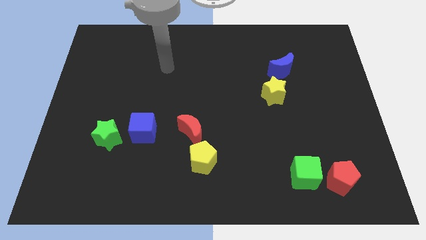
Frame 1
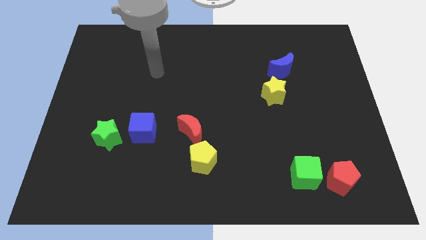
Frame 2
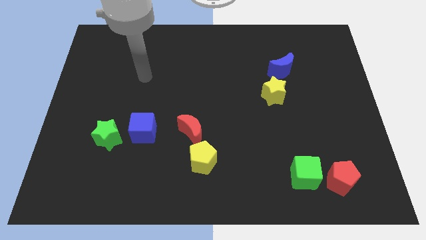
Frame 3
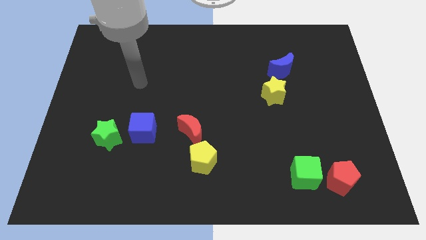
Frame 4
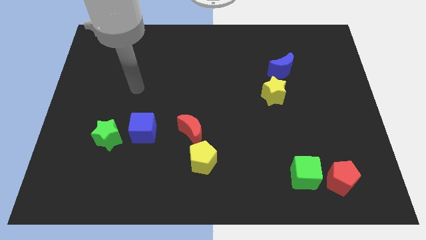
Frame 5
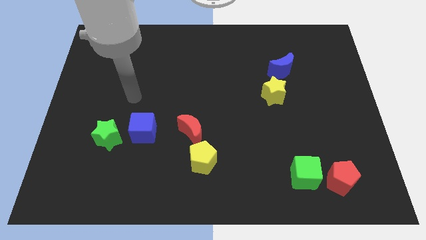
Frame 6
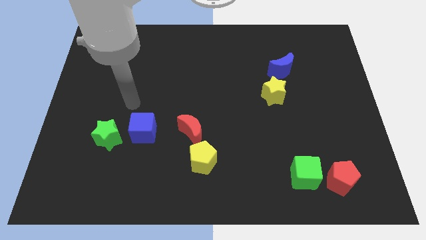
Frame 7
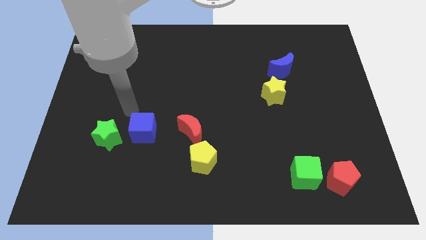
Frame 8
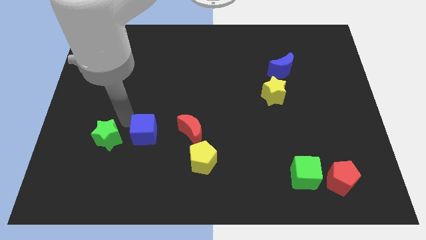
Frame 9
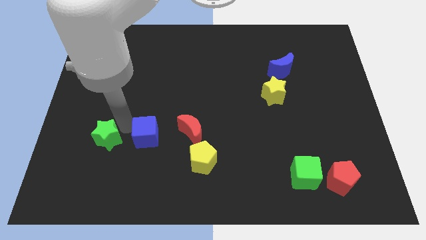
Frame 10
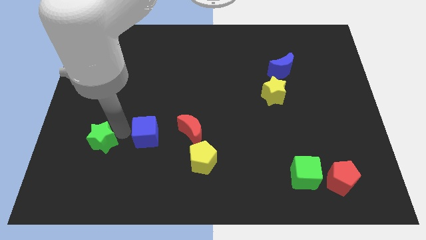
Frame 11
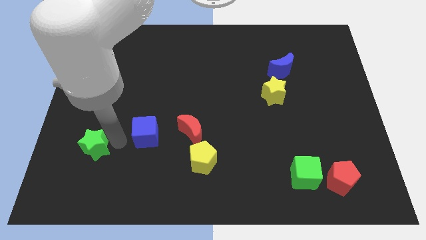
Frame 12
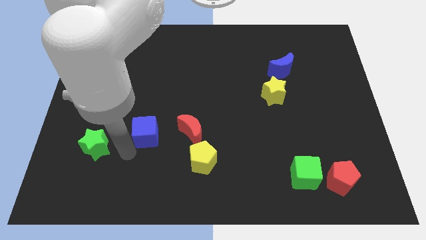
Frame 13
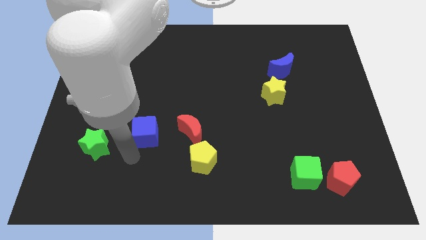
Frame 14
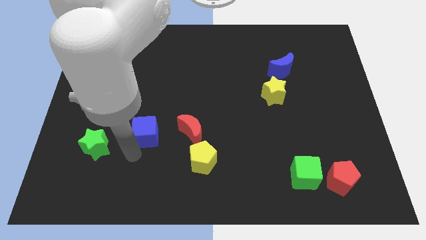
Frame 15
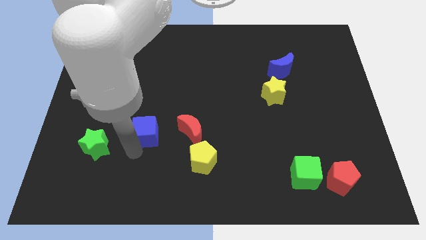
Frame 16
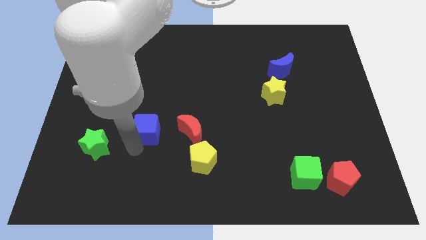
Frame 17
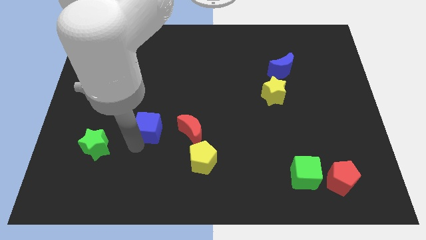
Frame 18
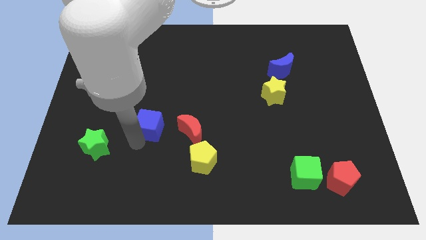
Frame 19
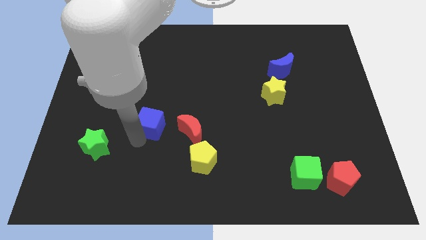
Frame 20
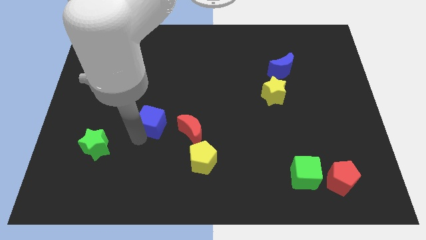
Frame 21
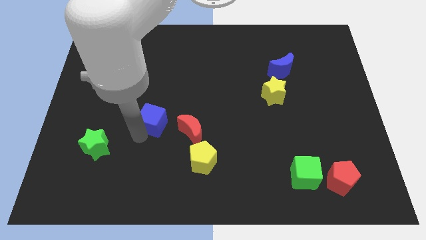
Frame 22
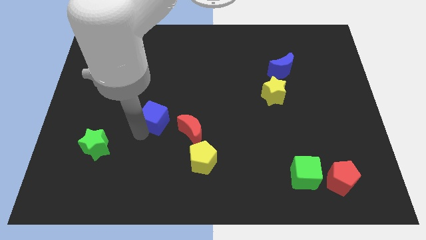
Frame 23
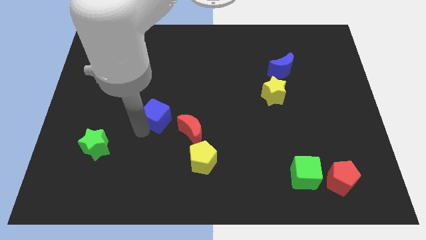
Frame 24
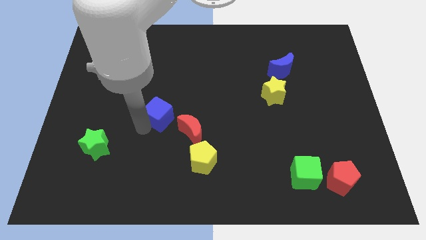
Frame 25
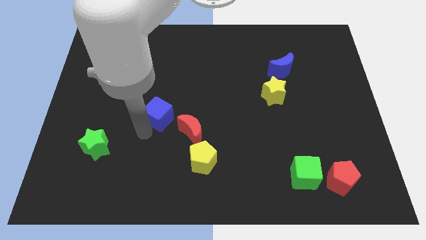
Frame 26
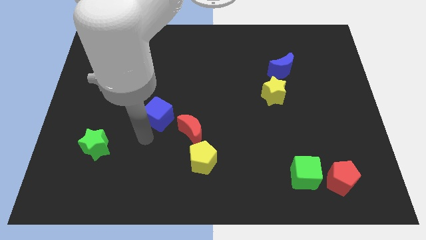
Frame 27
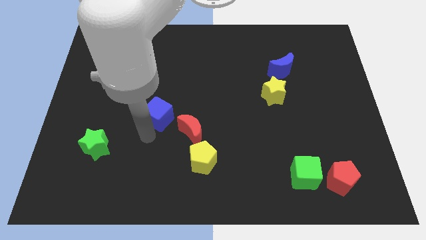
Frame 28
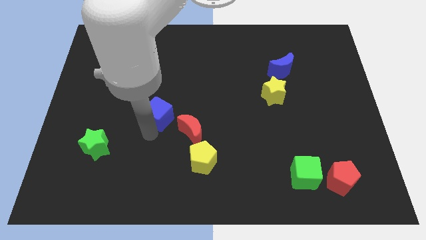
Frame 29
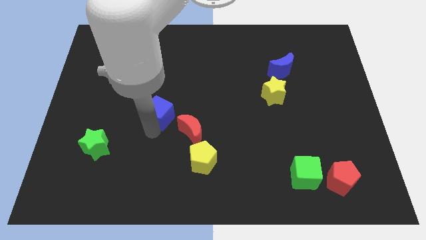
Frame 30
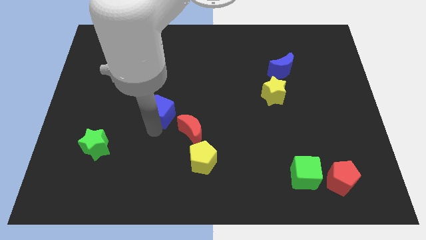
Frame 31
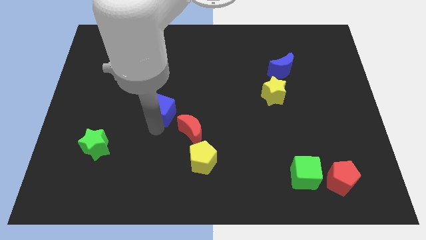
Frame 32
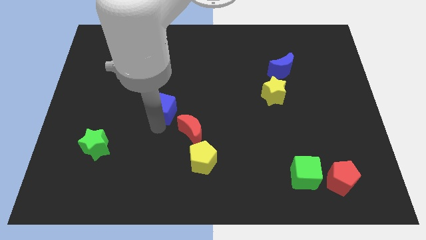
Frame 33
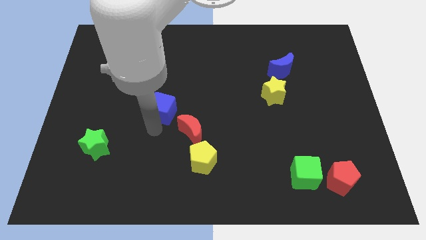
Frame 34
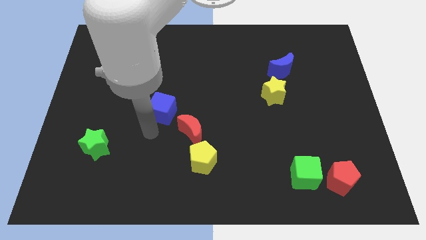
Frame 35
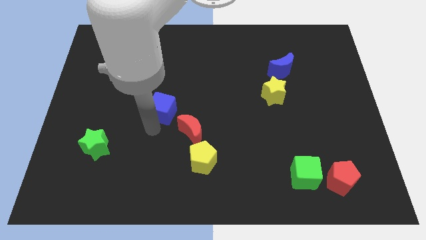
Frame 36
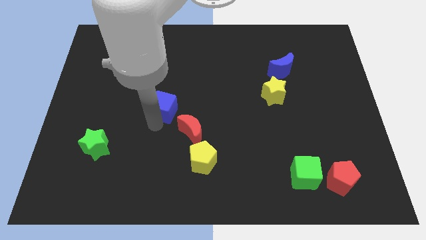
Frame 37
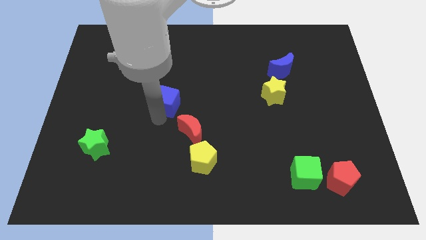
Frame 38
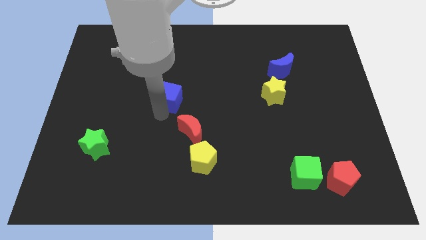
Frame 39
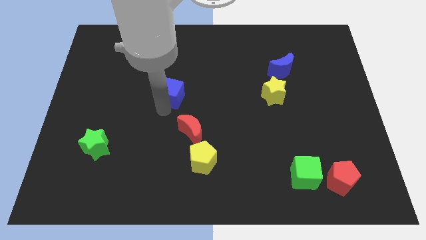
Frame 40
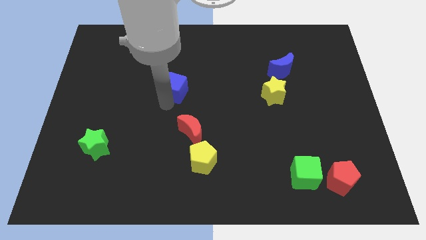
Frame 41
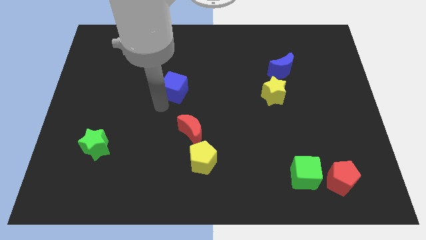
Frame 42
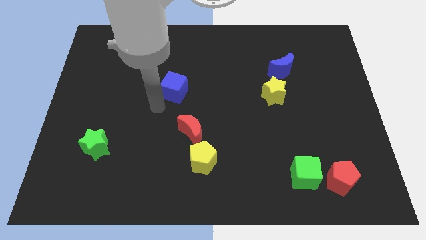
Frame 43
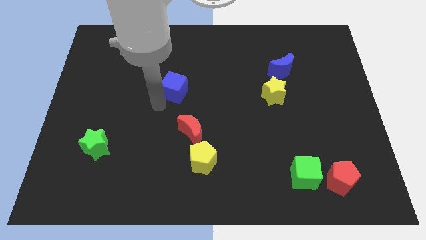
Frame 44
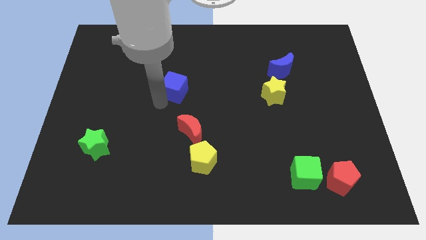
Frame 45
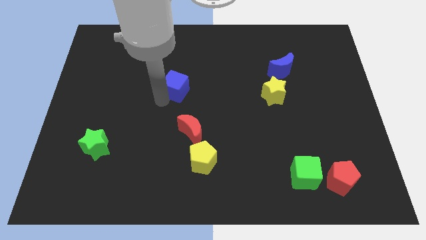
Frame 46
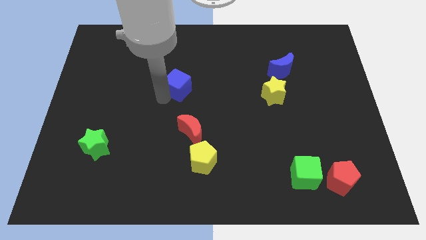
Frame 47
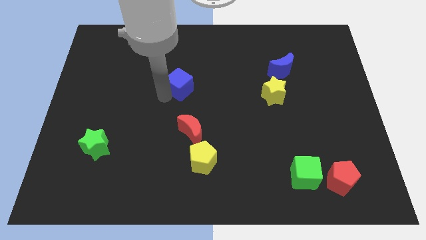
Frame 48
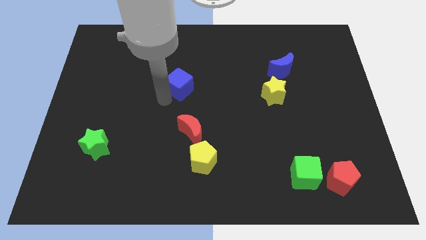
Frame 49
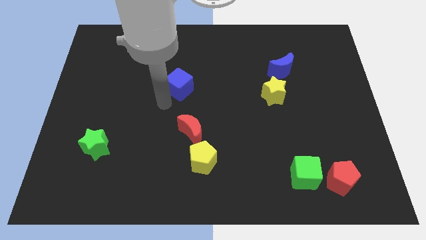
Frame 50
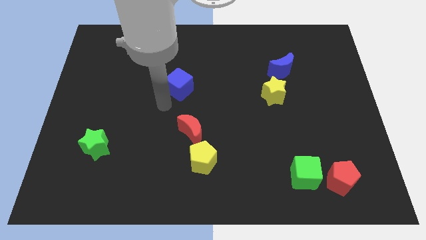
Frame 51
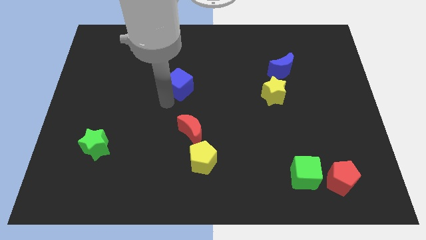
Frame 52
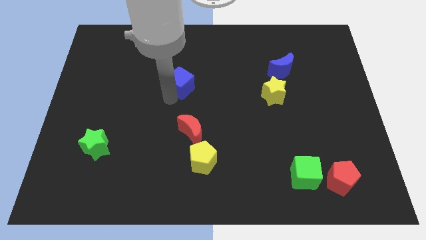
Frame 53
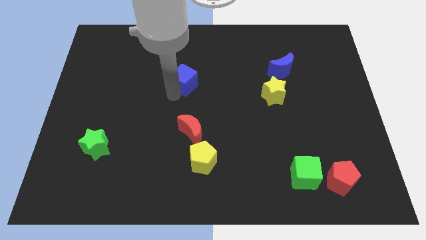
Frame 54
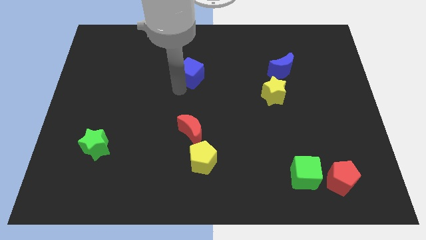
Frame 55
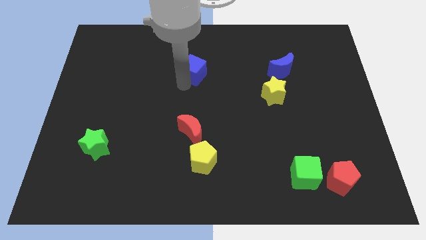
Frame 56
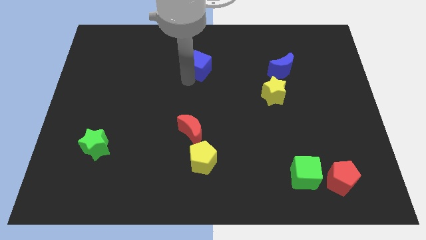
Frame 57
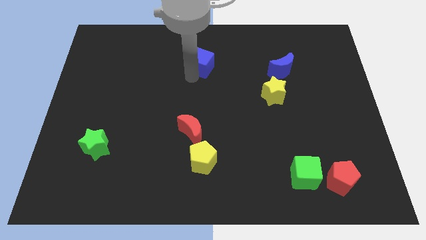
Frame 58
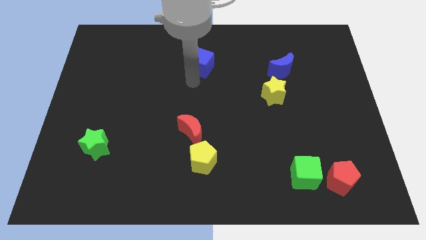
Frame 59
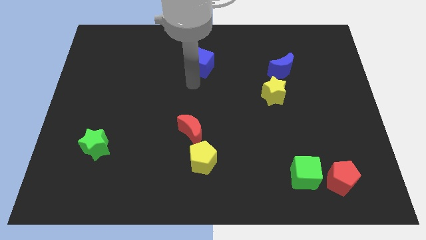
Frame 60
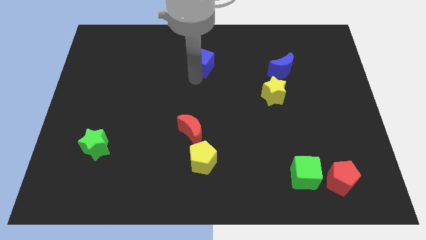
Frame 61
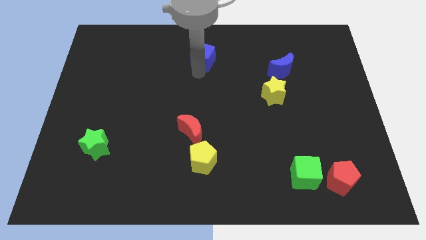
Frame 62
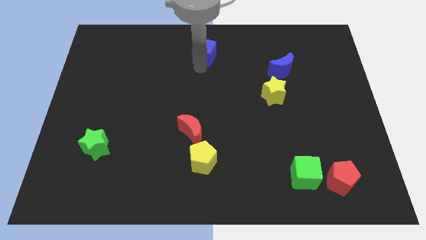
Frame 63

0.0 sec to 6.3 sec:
move the blue cube to the top side

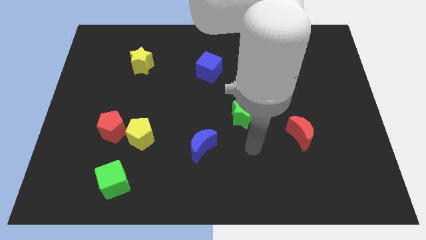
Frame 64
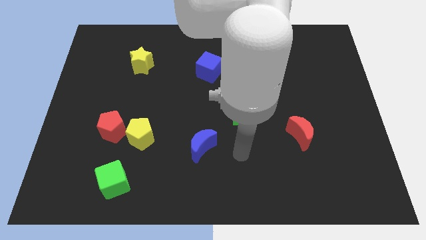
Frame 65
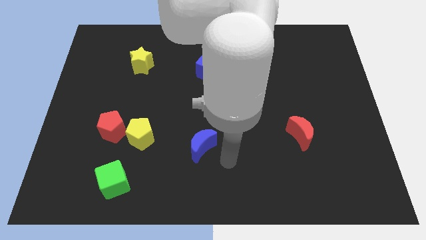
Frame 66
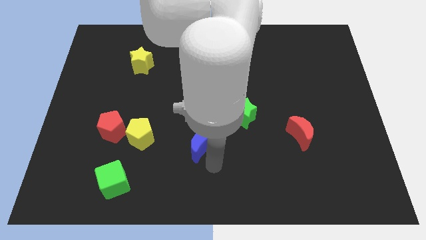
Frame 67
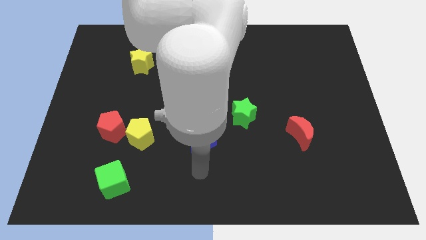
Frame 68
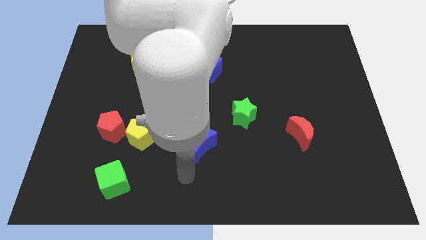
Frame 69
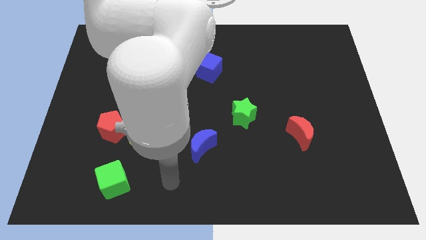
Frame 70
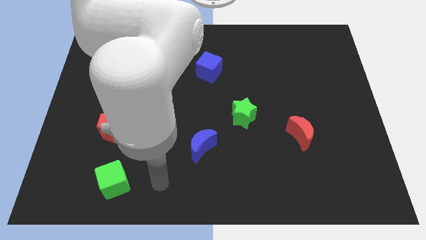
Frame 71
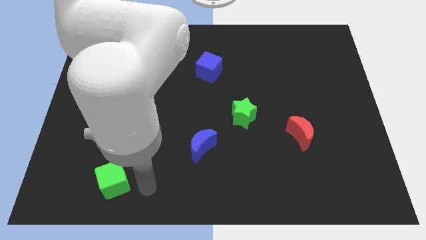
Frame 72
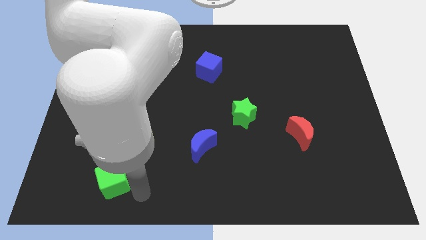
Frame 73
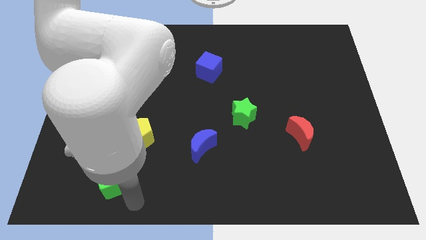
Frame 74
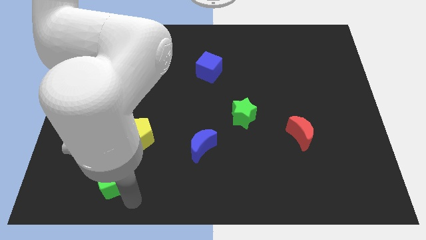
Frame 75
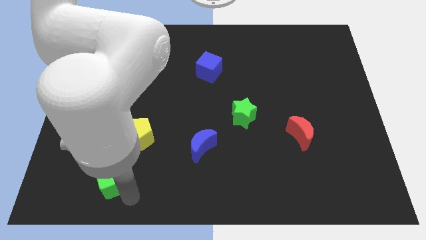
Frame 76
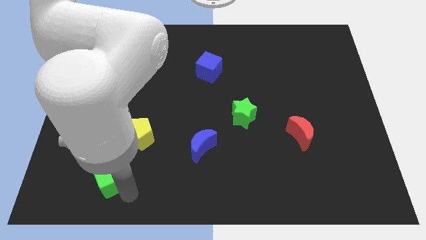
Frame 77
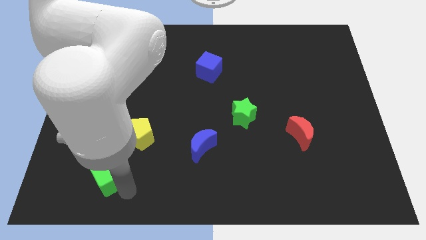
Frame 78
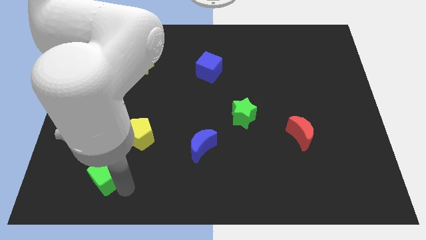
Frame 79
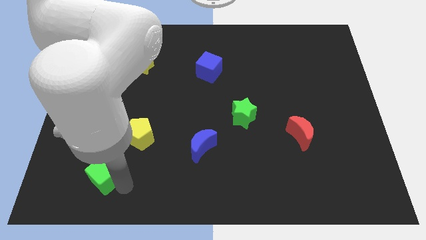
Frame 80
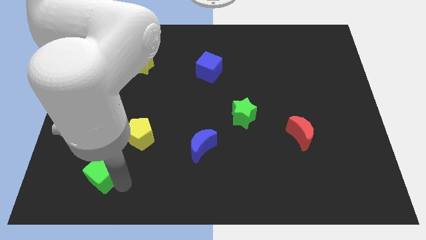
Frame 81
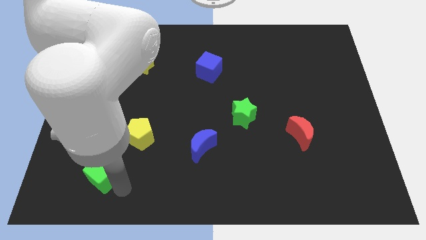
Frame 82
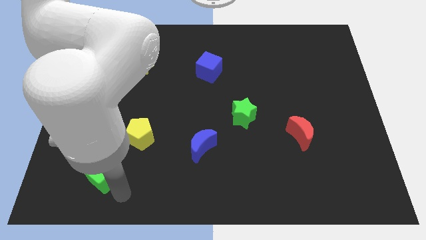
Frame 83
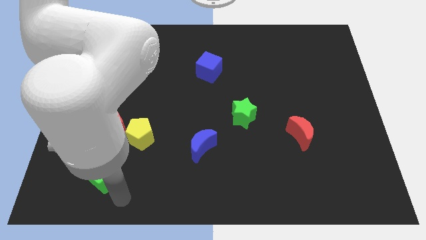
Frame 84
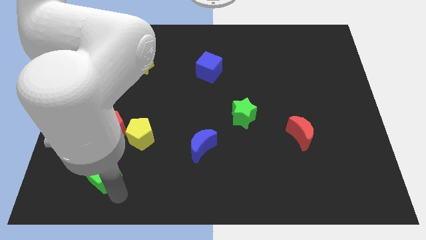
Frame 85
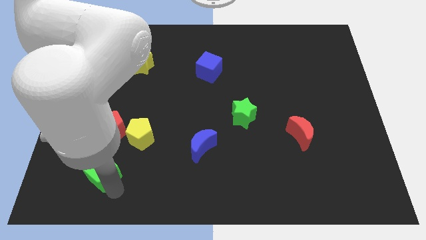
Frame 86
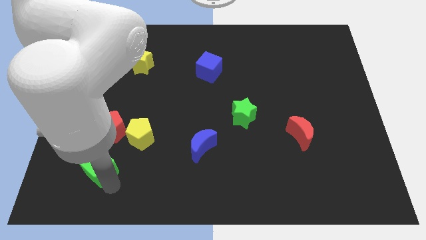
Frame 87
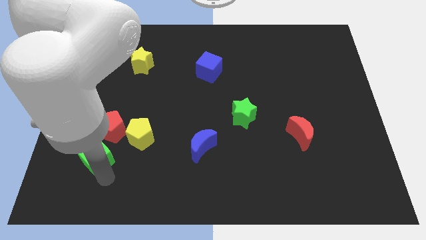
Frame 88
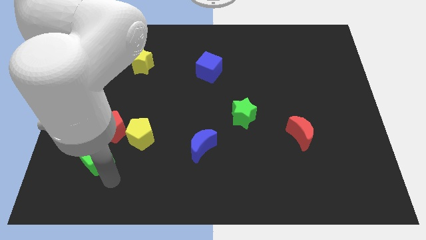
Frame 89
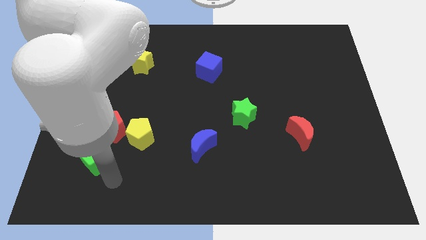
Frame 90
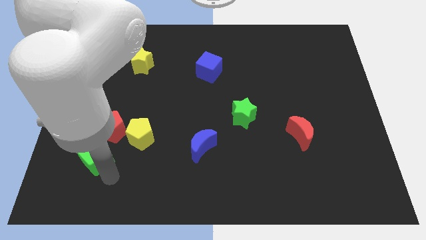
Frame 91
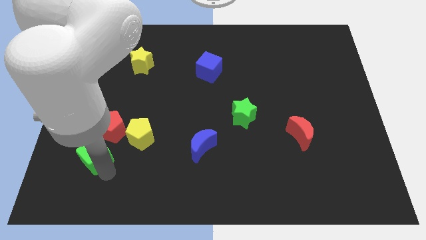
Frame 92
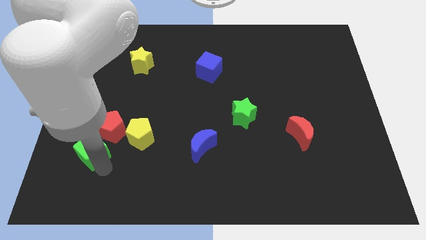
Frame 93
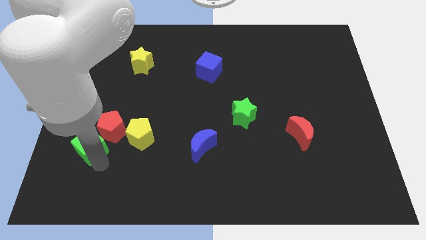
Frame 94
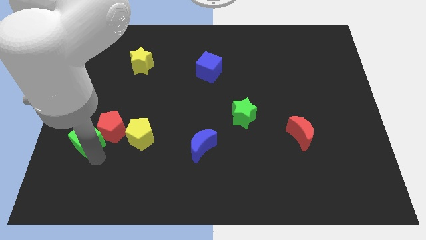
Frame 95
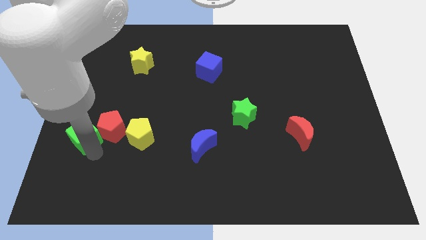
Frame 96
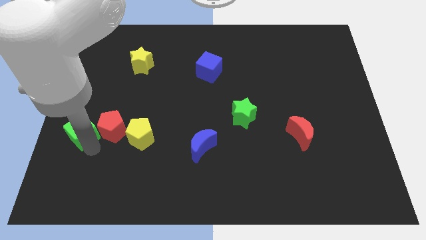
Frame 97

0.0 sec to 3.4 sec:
move the green cube to the center left
